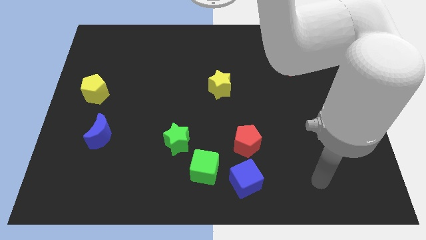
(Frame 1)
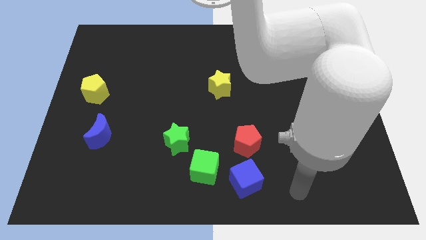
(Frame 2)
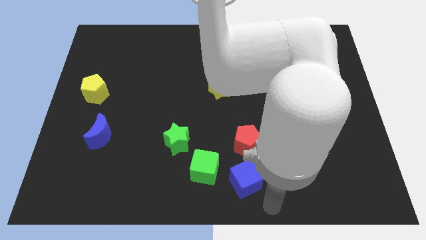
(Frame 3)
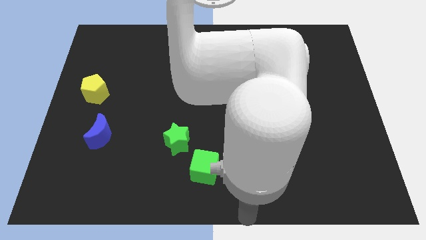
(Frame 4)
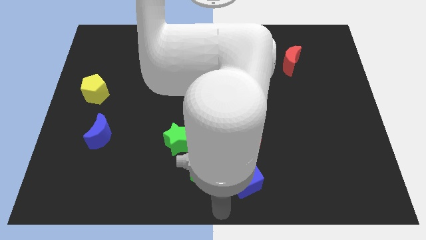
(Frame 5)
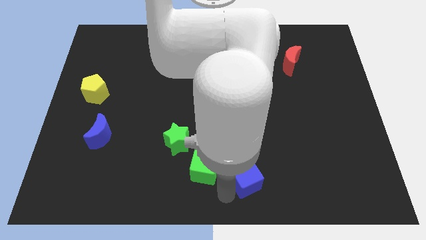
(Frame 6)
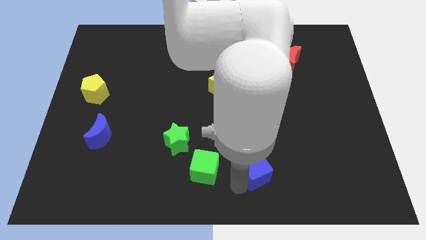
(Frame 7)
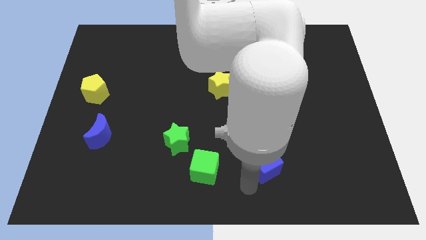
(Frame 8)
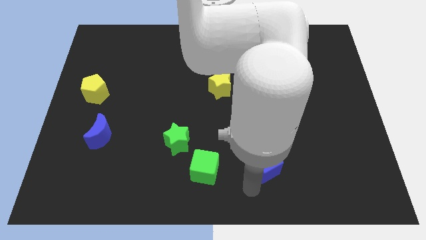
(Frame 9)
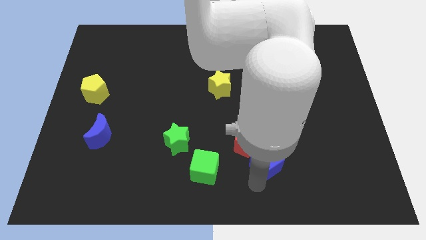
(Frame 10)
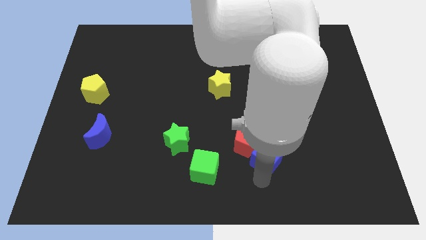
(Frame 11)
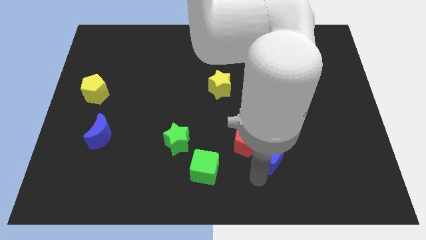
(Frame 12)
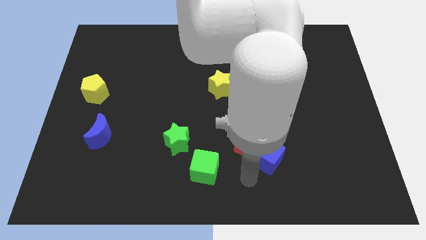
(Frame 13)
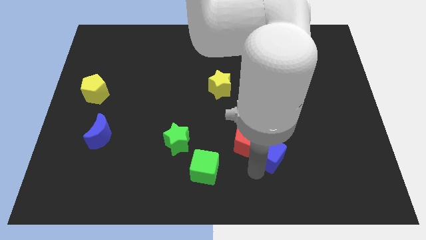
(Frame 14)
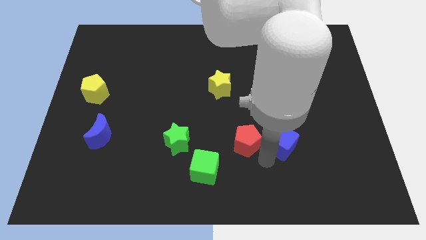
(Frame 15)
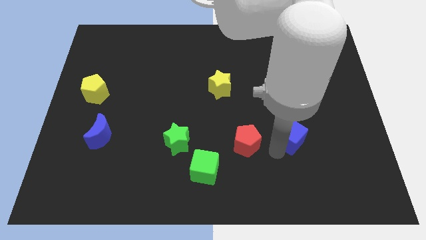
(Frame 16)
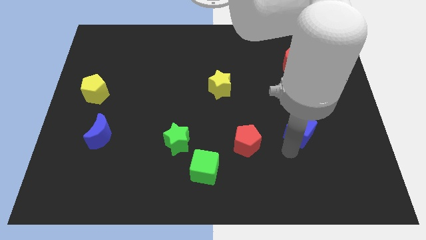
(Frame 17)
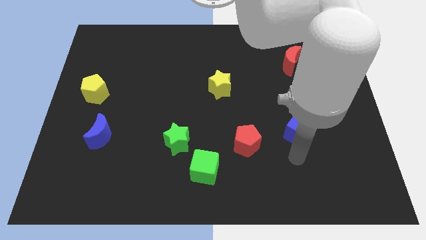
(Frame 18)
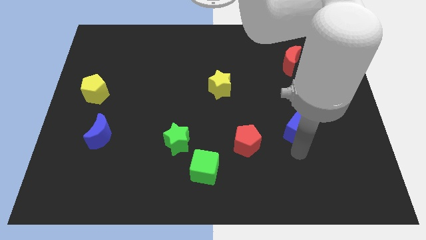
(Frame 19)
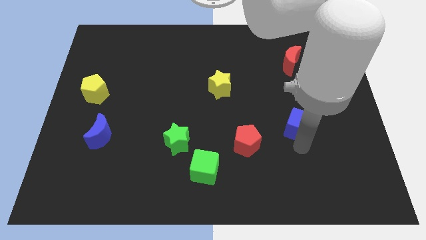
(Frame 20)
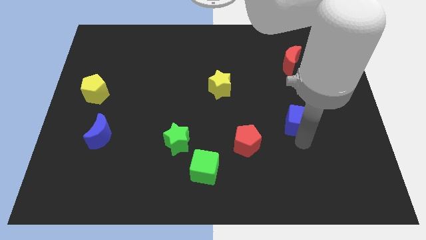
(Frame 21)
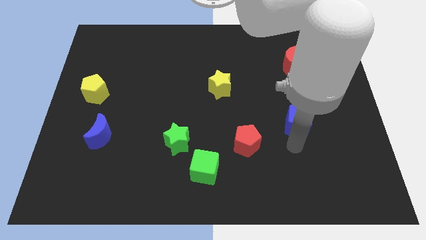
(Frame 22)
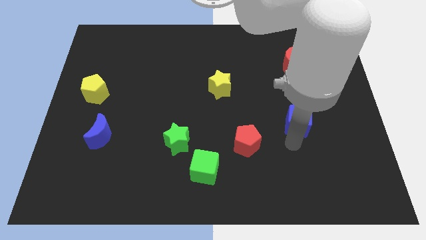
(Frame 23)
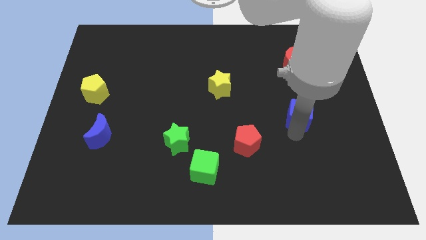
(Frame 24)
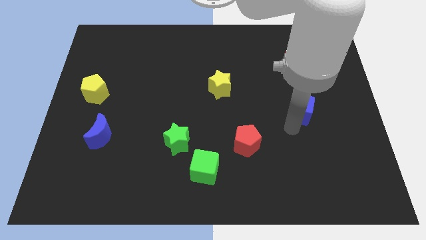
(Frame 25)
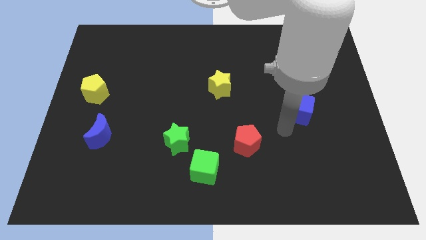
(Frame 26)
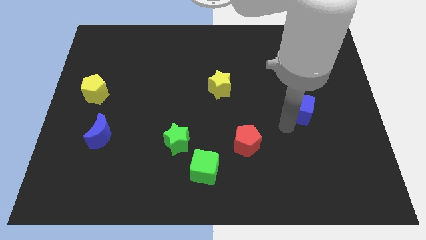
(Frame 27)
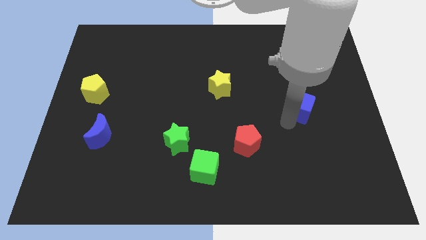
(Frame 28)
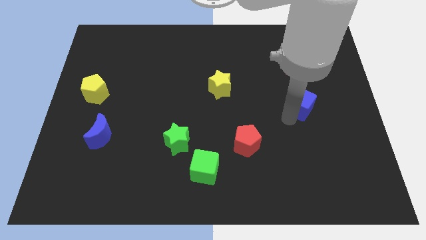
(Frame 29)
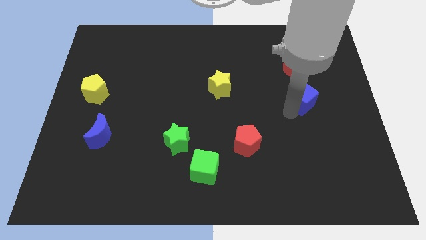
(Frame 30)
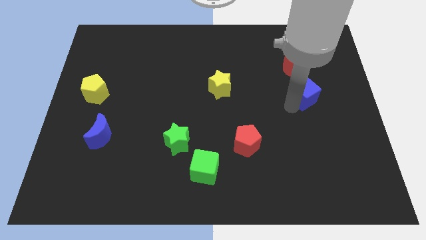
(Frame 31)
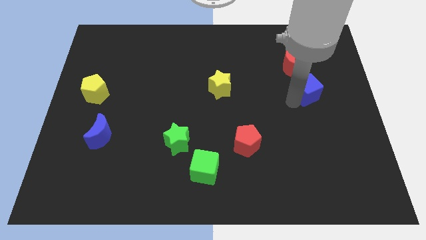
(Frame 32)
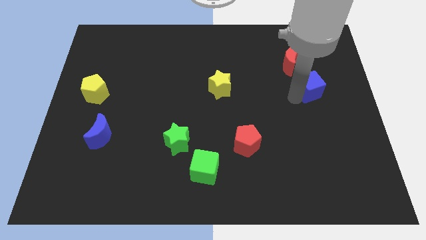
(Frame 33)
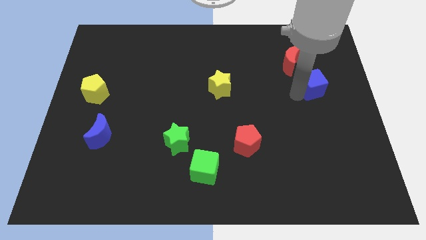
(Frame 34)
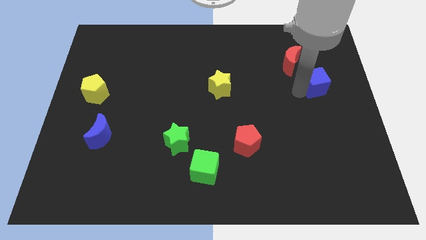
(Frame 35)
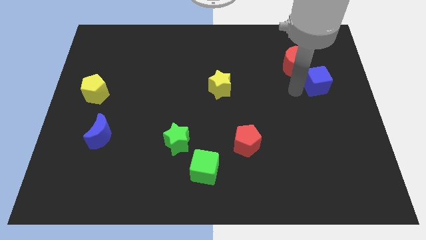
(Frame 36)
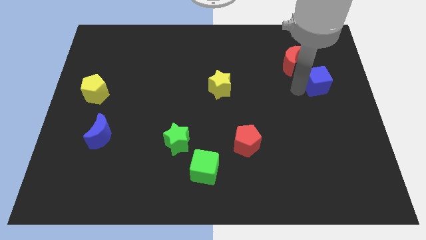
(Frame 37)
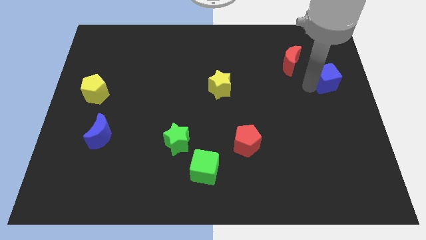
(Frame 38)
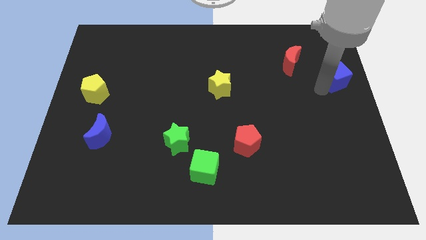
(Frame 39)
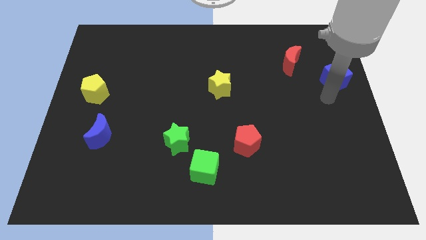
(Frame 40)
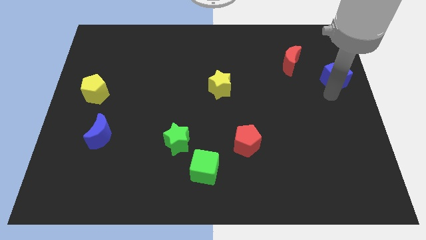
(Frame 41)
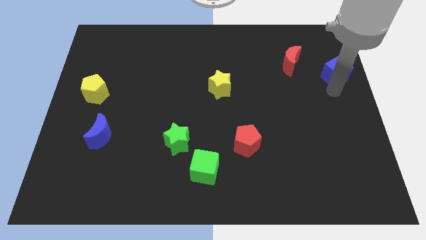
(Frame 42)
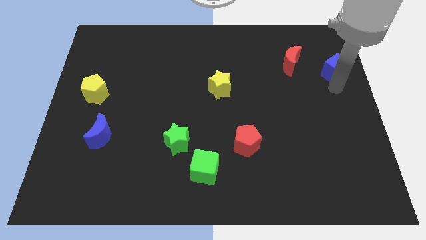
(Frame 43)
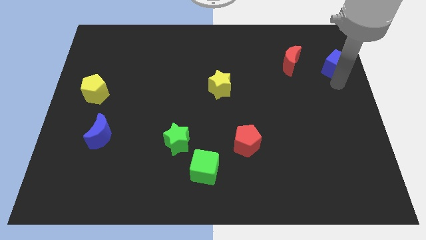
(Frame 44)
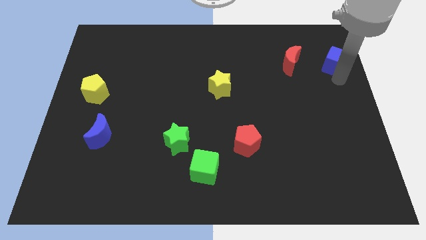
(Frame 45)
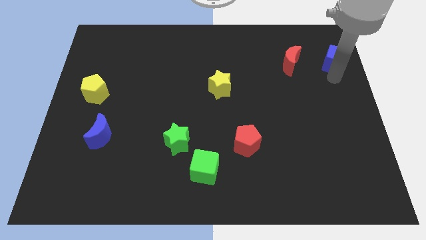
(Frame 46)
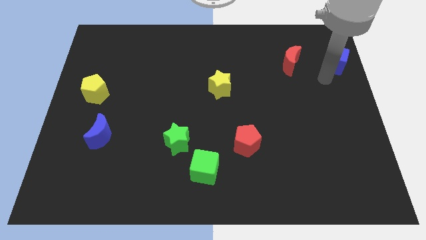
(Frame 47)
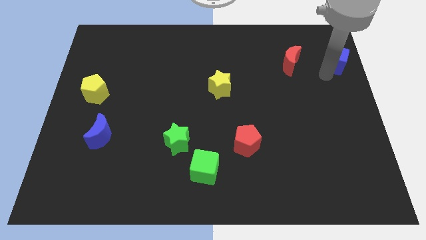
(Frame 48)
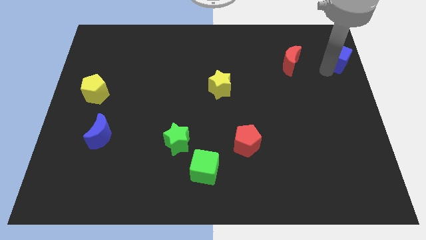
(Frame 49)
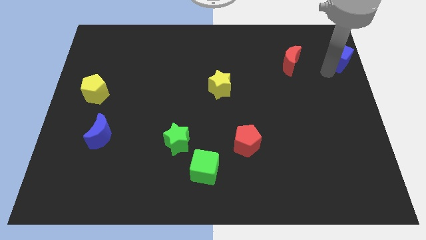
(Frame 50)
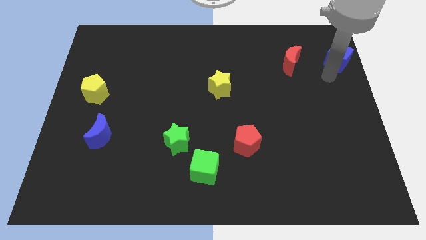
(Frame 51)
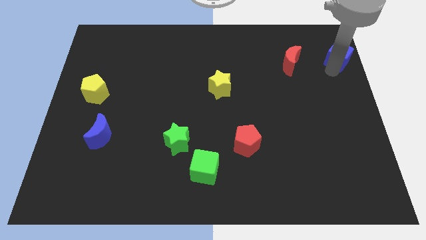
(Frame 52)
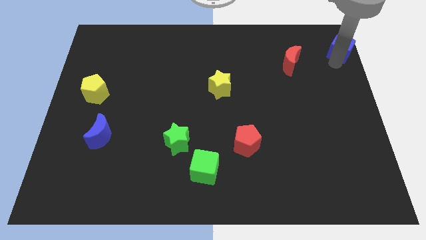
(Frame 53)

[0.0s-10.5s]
slide the blue cube to the top right of the board
